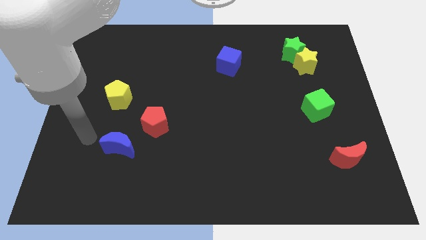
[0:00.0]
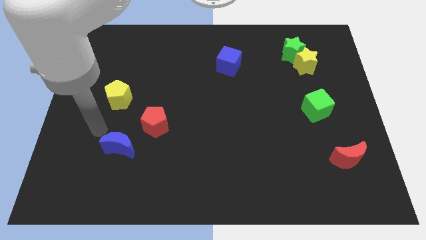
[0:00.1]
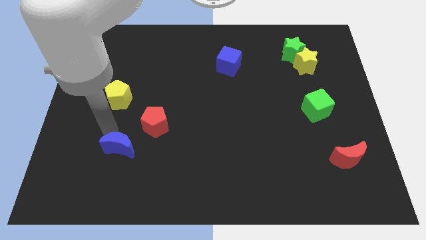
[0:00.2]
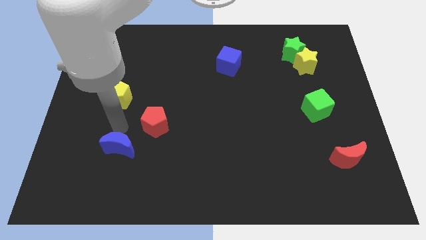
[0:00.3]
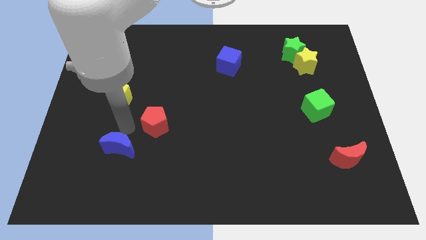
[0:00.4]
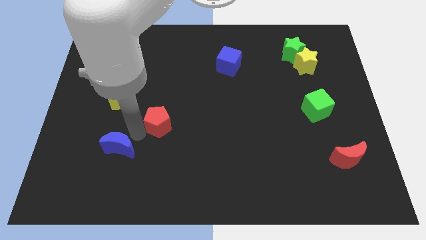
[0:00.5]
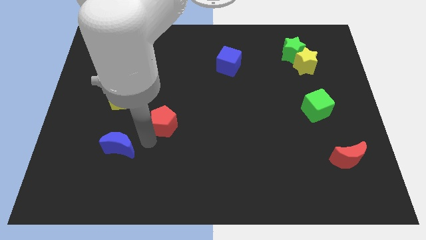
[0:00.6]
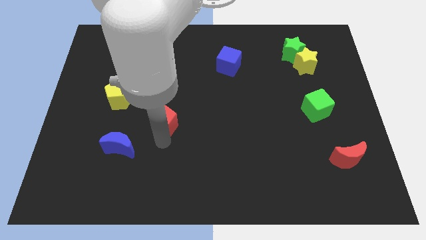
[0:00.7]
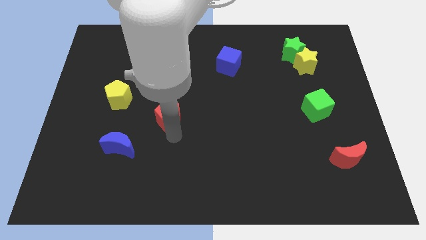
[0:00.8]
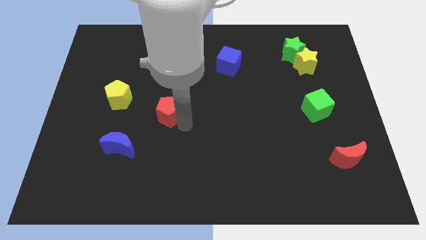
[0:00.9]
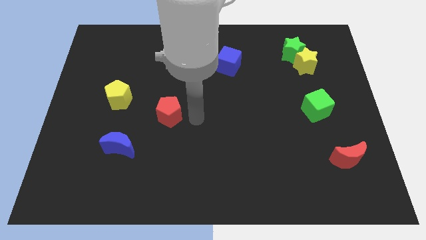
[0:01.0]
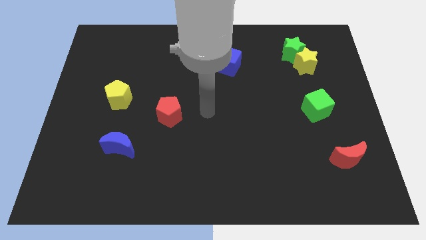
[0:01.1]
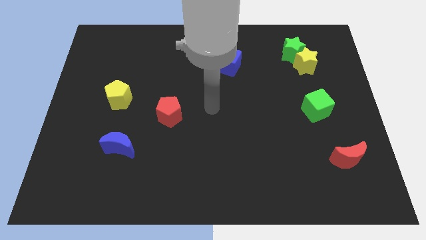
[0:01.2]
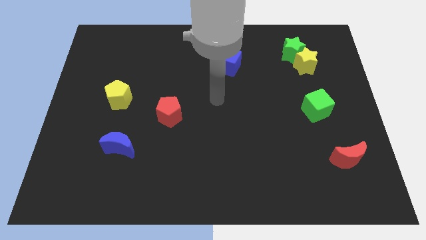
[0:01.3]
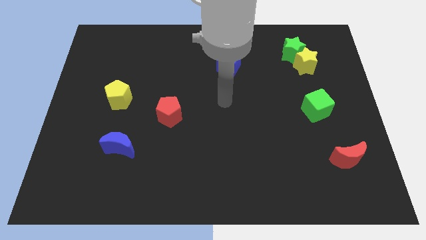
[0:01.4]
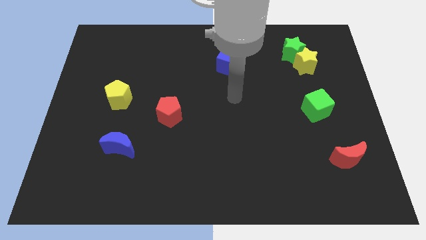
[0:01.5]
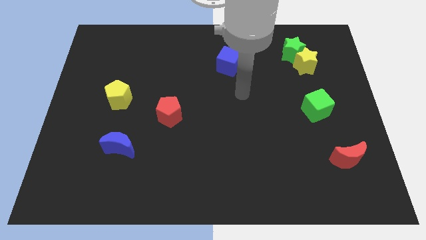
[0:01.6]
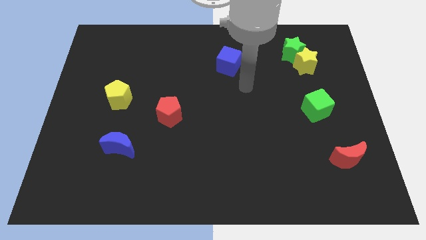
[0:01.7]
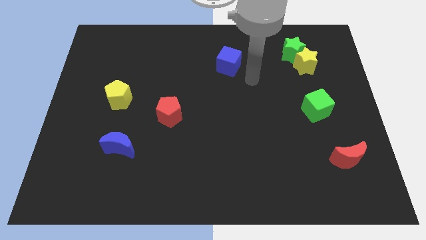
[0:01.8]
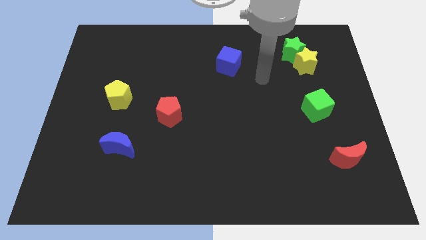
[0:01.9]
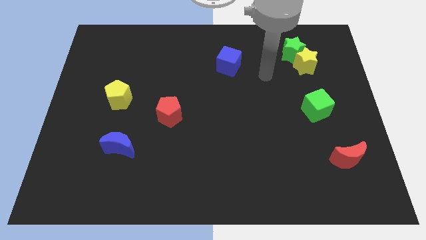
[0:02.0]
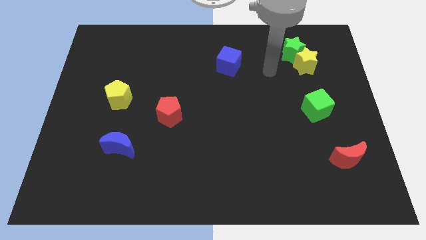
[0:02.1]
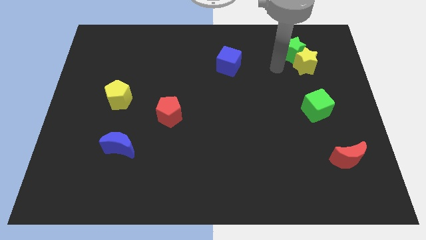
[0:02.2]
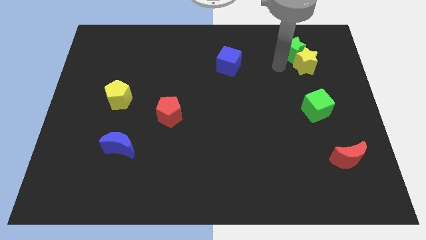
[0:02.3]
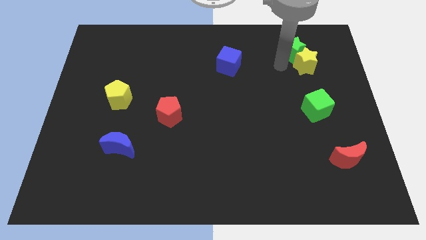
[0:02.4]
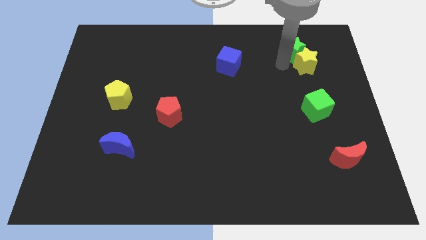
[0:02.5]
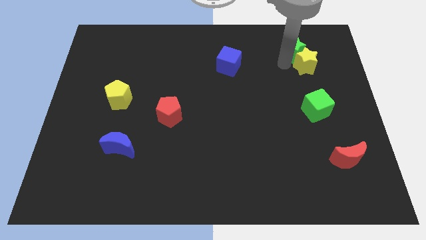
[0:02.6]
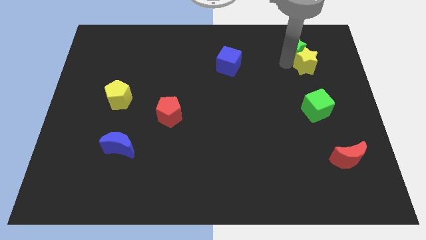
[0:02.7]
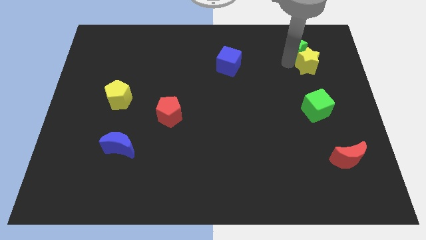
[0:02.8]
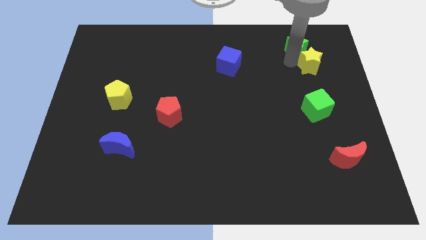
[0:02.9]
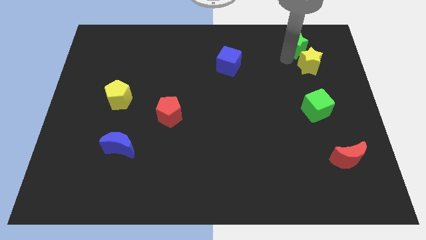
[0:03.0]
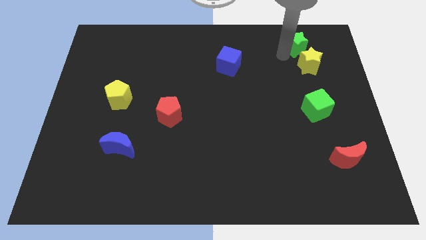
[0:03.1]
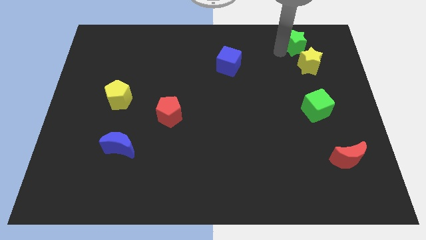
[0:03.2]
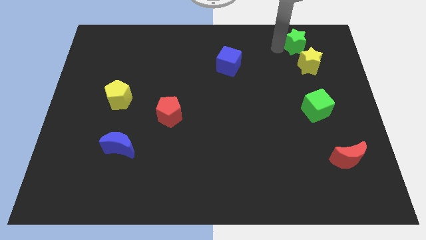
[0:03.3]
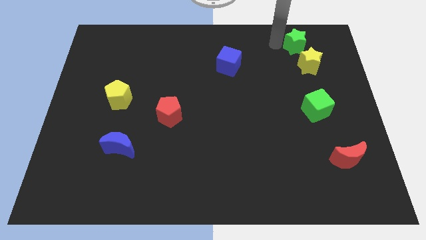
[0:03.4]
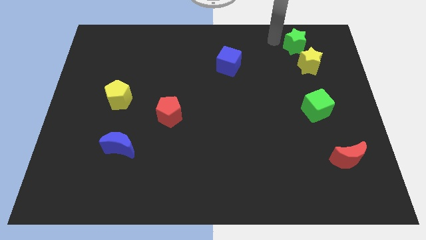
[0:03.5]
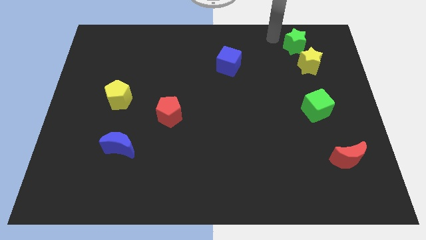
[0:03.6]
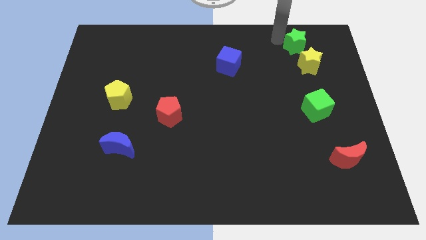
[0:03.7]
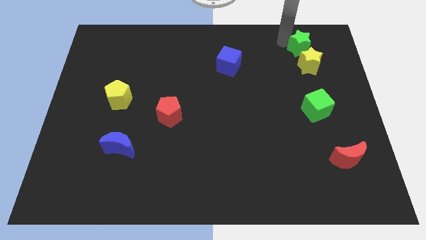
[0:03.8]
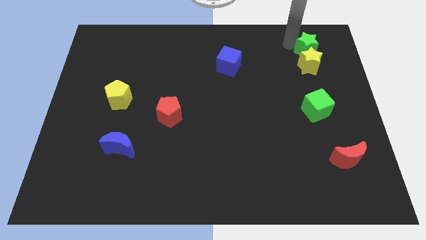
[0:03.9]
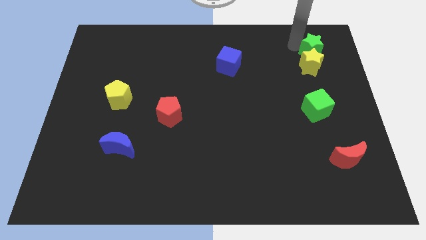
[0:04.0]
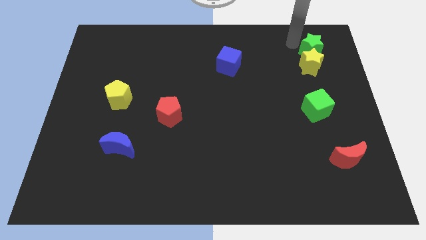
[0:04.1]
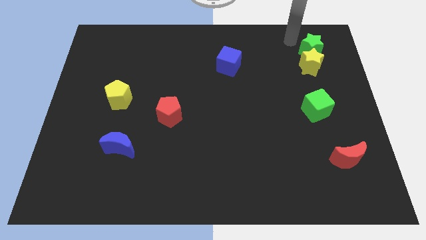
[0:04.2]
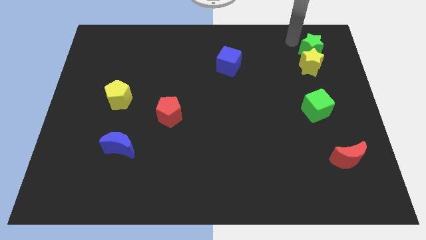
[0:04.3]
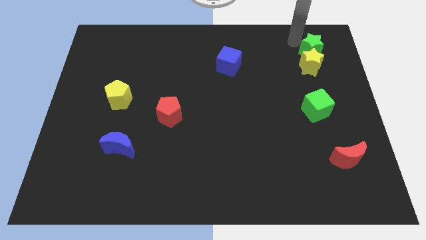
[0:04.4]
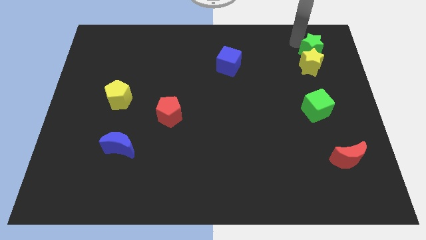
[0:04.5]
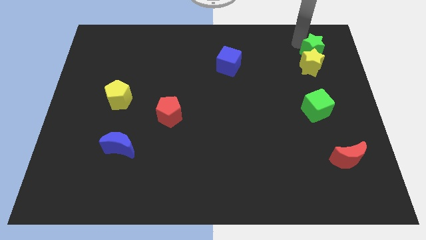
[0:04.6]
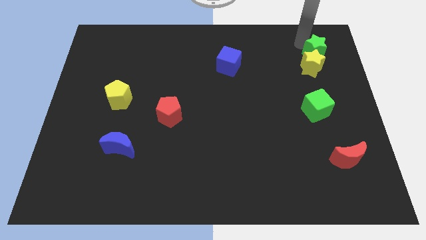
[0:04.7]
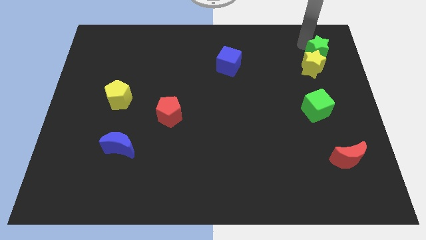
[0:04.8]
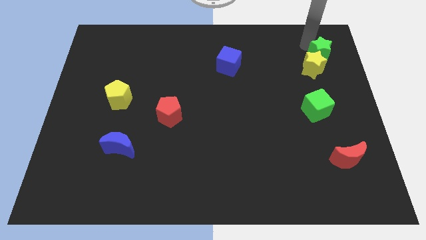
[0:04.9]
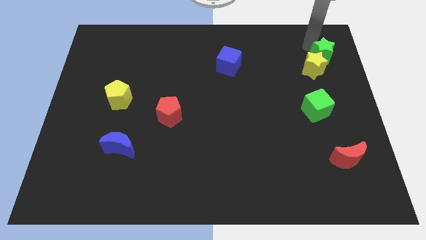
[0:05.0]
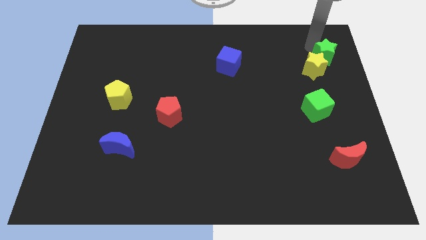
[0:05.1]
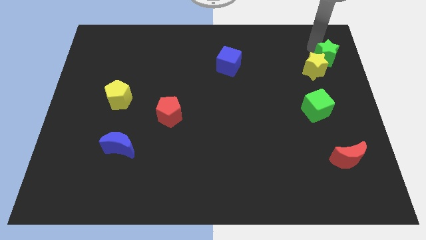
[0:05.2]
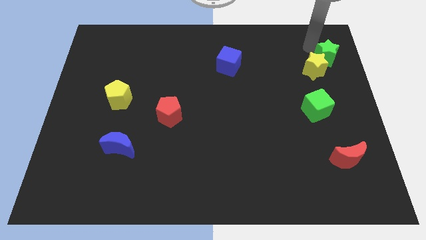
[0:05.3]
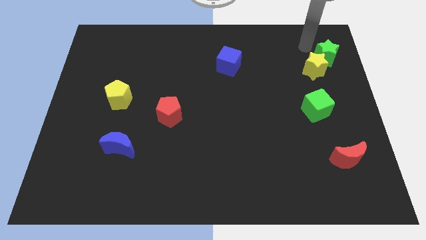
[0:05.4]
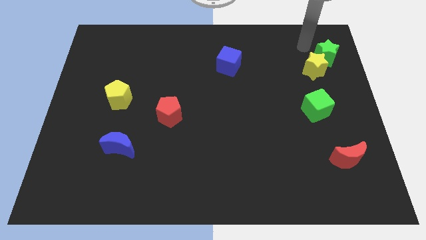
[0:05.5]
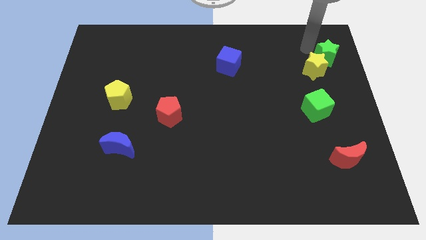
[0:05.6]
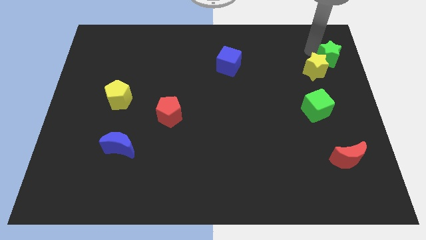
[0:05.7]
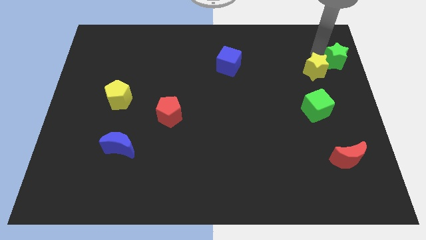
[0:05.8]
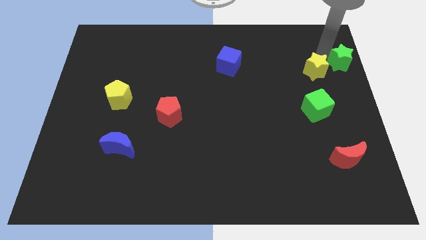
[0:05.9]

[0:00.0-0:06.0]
put the green star to the right side of the board
